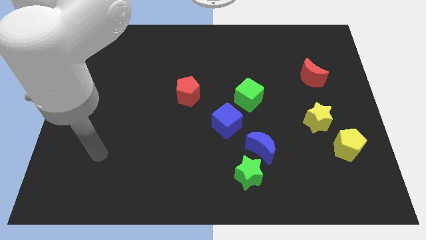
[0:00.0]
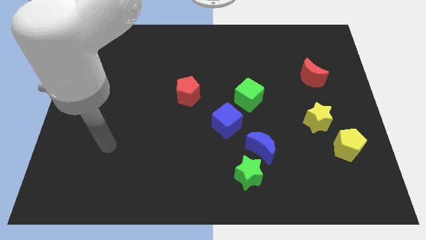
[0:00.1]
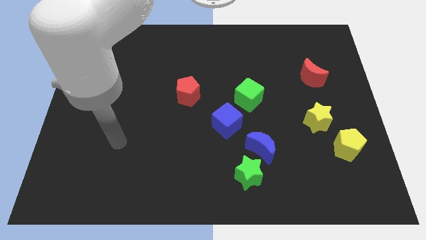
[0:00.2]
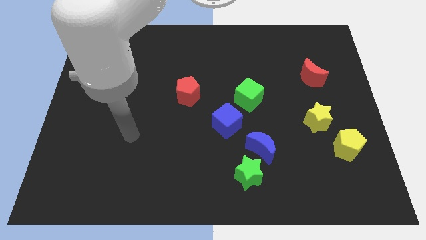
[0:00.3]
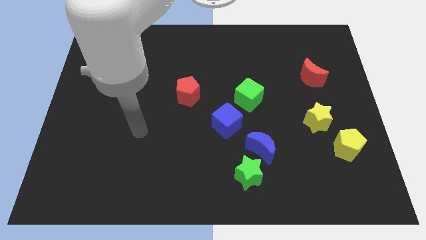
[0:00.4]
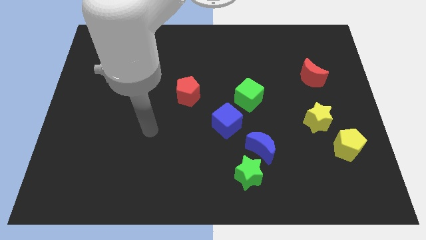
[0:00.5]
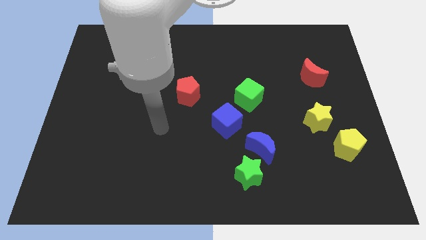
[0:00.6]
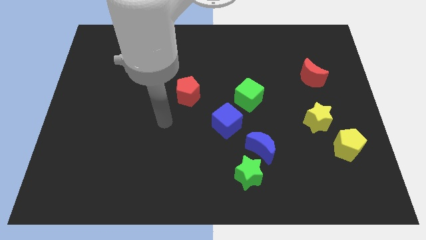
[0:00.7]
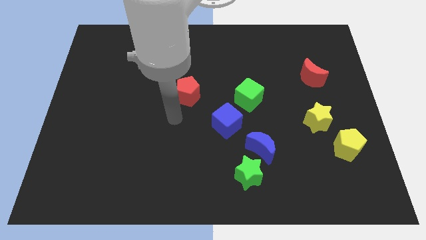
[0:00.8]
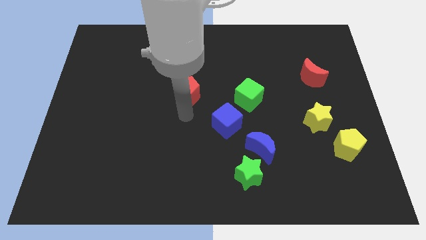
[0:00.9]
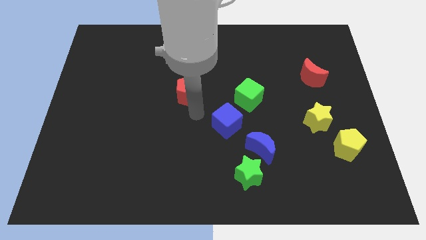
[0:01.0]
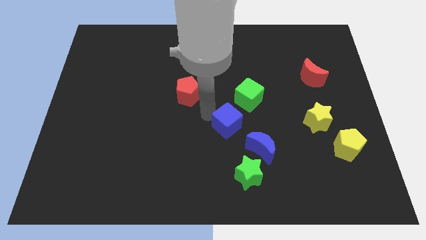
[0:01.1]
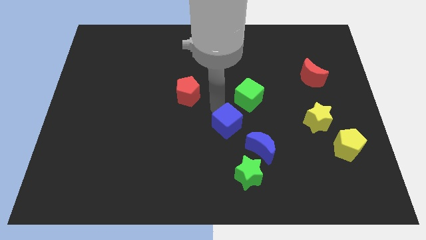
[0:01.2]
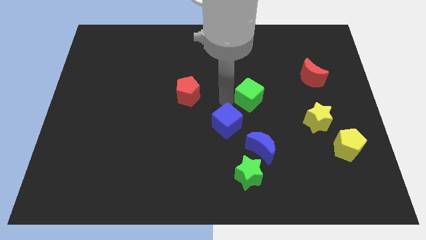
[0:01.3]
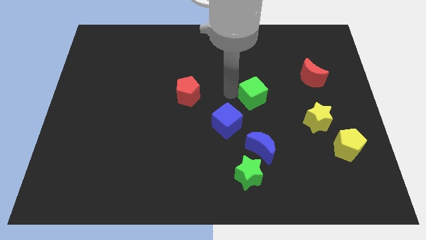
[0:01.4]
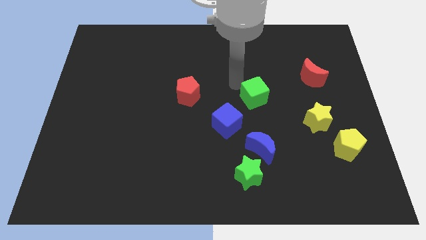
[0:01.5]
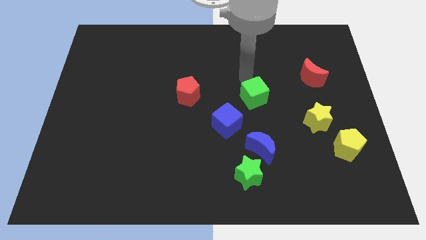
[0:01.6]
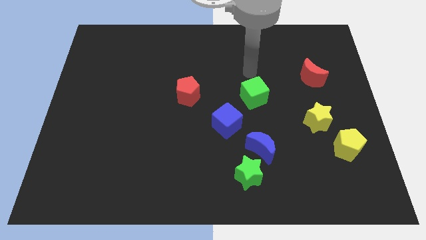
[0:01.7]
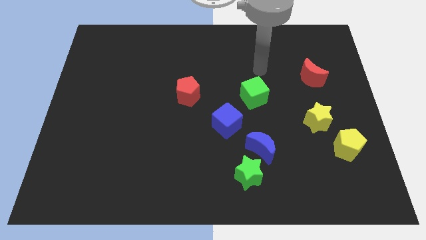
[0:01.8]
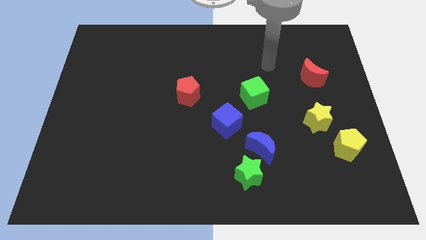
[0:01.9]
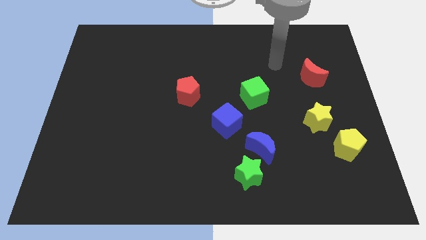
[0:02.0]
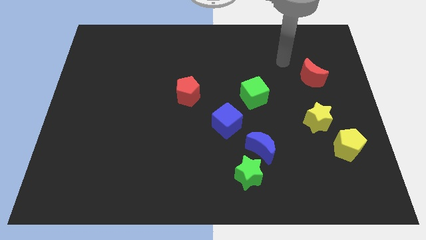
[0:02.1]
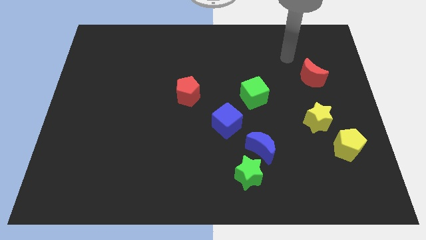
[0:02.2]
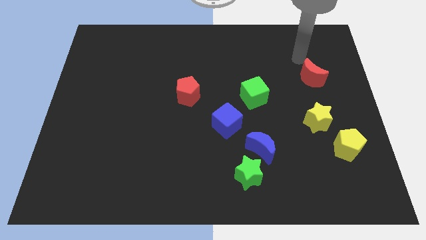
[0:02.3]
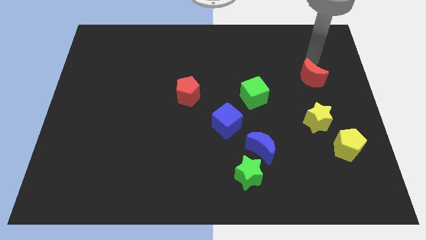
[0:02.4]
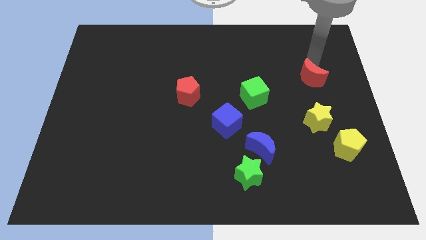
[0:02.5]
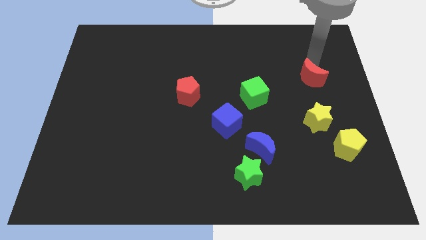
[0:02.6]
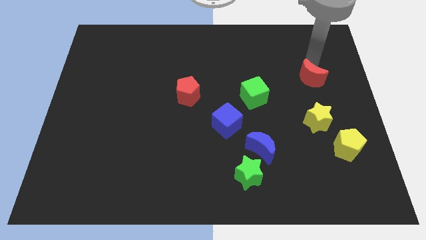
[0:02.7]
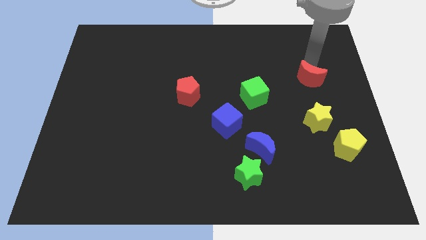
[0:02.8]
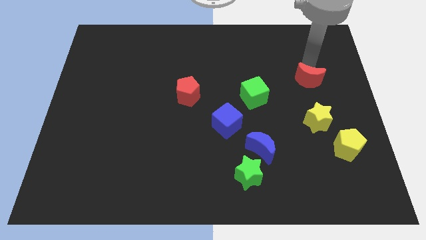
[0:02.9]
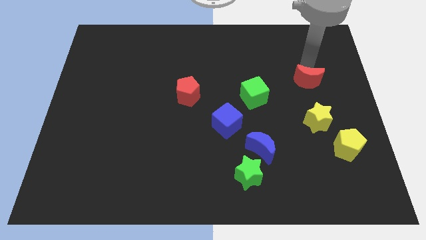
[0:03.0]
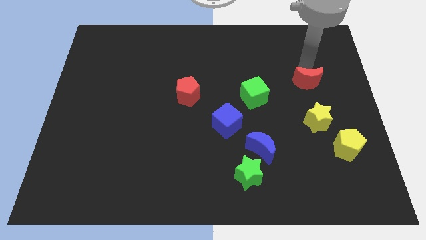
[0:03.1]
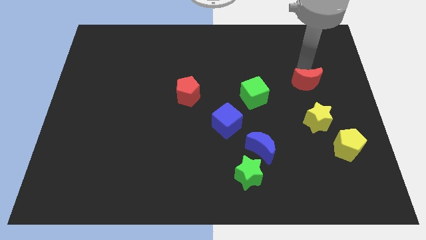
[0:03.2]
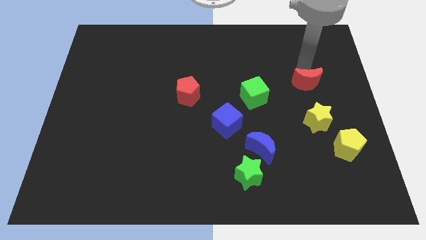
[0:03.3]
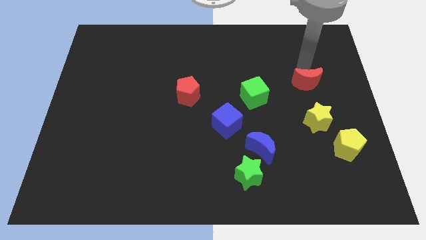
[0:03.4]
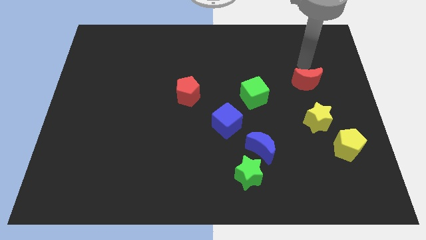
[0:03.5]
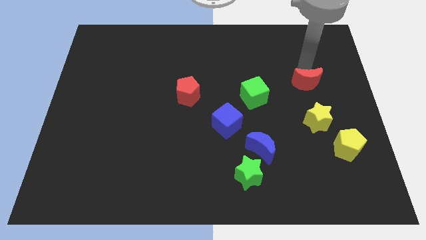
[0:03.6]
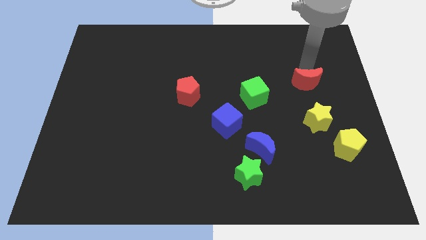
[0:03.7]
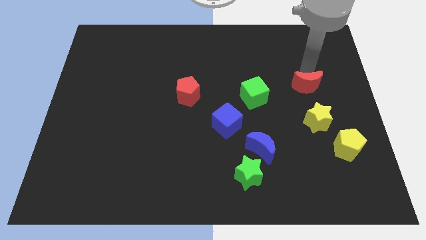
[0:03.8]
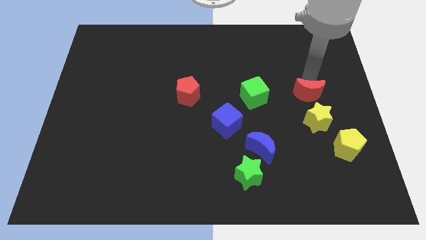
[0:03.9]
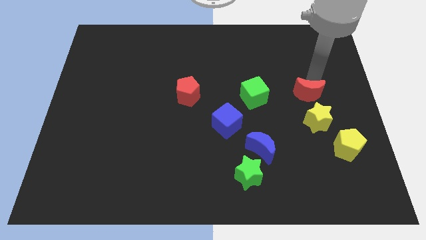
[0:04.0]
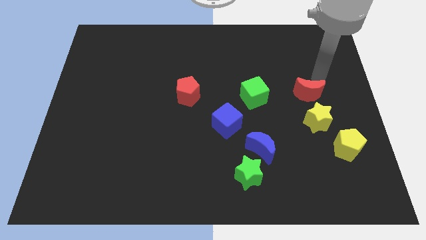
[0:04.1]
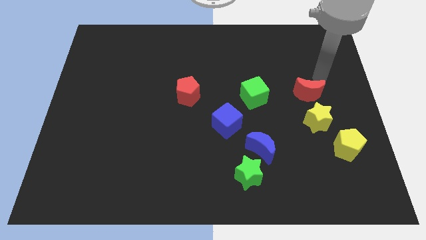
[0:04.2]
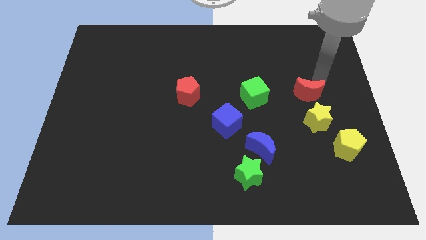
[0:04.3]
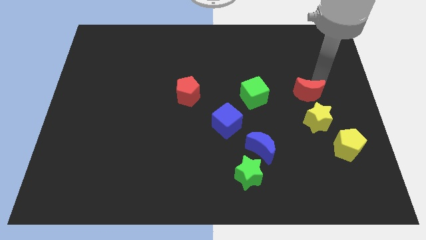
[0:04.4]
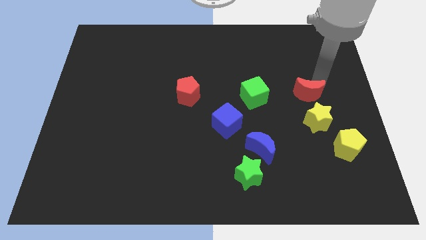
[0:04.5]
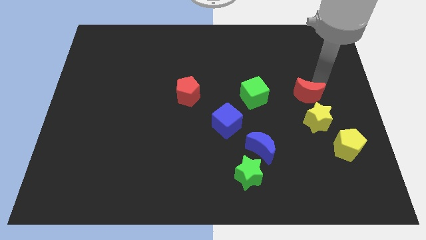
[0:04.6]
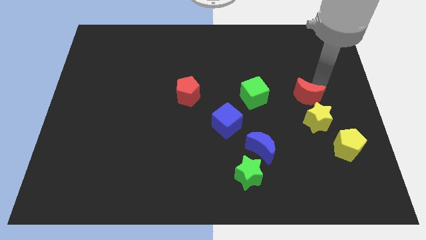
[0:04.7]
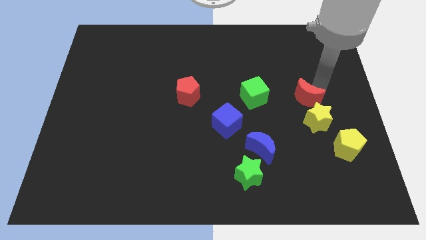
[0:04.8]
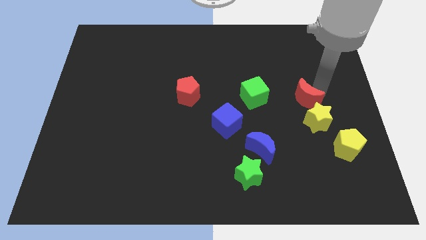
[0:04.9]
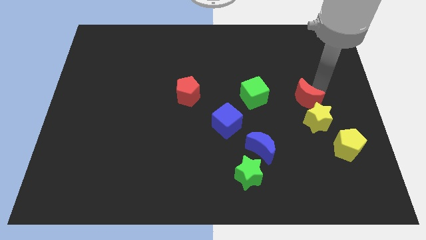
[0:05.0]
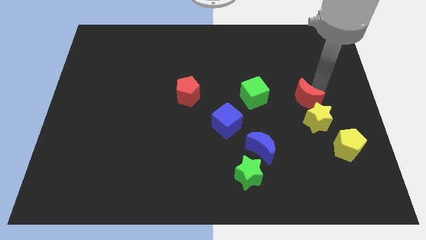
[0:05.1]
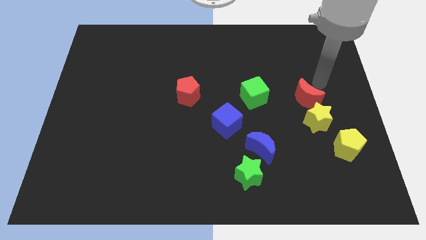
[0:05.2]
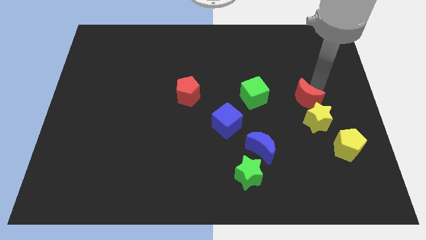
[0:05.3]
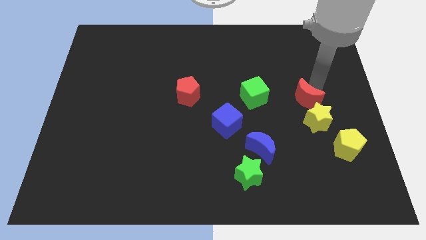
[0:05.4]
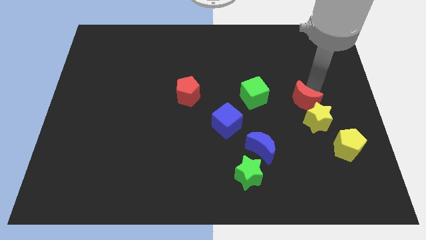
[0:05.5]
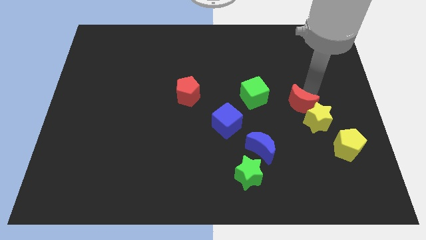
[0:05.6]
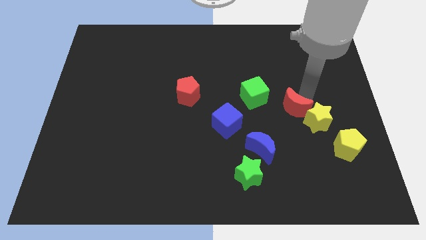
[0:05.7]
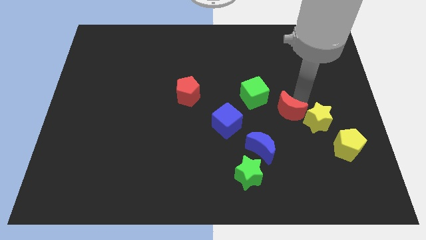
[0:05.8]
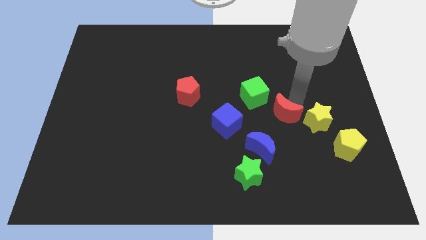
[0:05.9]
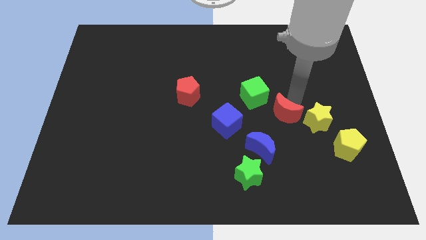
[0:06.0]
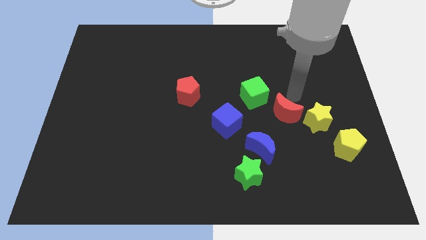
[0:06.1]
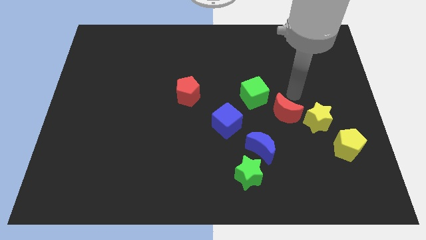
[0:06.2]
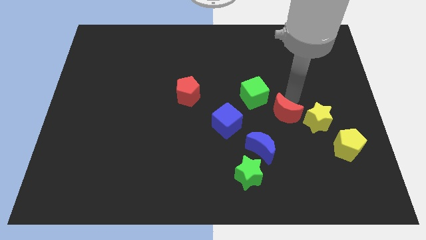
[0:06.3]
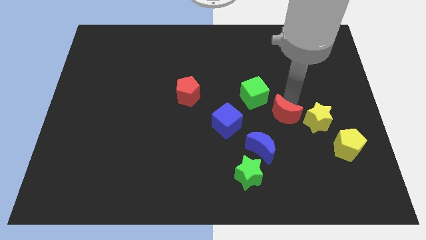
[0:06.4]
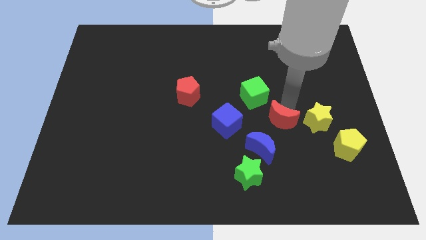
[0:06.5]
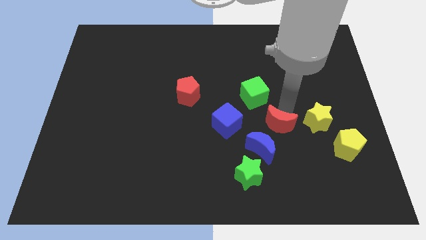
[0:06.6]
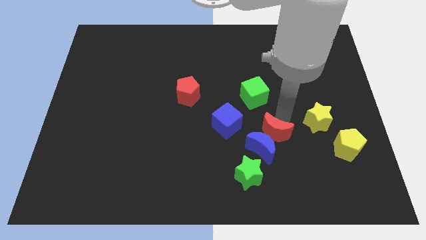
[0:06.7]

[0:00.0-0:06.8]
slide the red moon towards the blue moon
